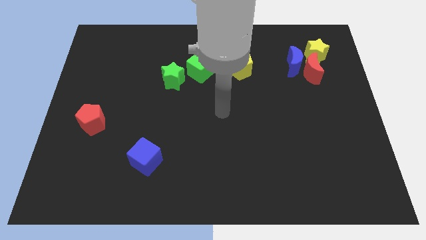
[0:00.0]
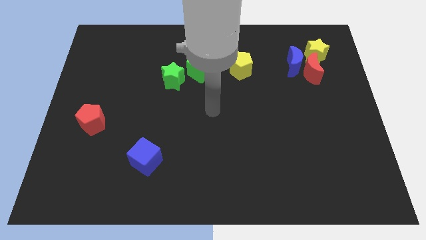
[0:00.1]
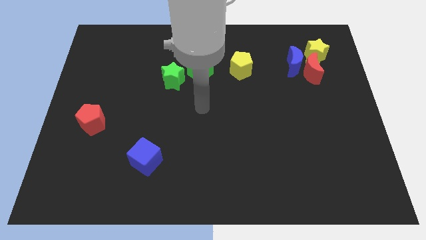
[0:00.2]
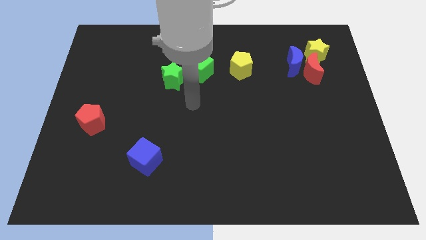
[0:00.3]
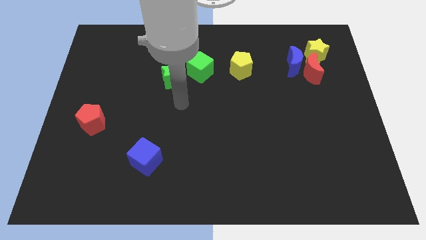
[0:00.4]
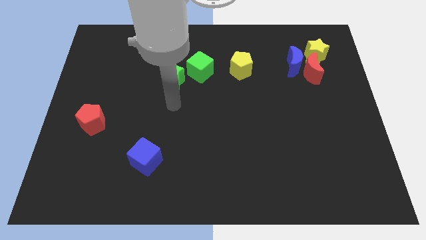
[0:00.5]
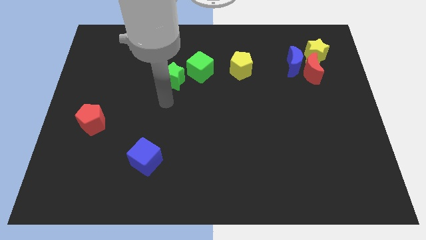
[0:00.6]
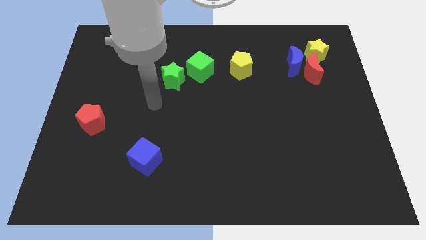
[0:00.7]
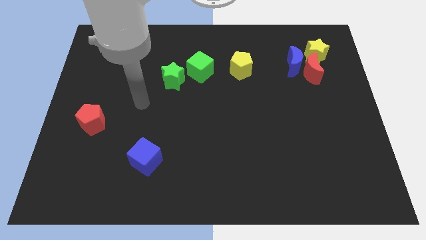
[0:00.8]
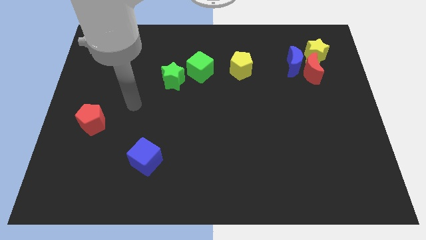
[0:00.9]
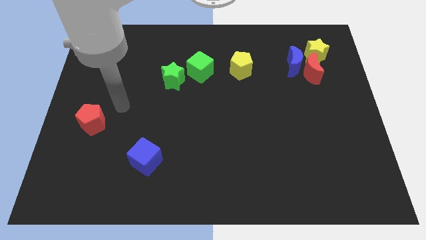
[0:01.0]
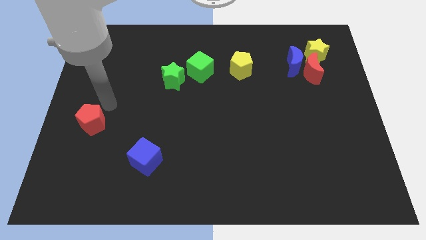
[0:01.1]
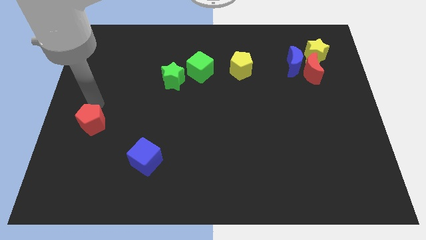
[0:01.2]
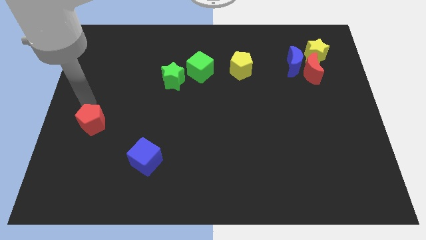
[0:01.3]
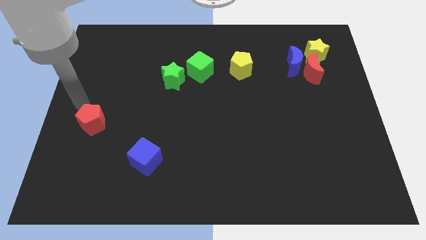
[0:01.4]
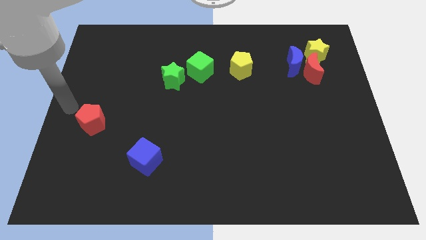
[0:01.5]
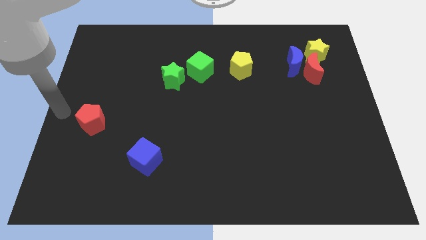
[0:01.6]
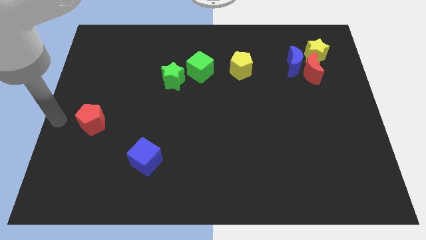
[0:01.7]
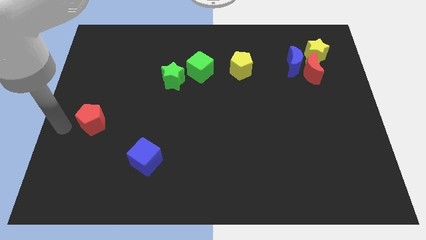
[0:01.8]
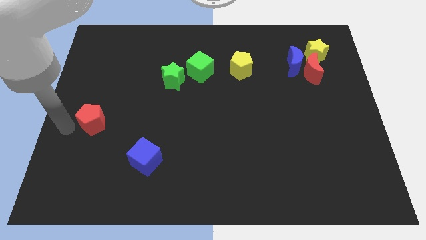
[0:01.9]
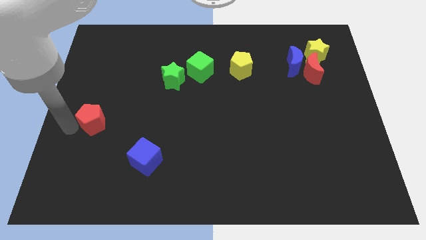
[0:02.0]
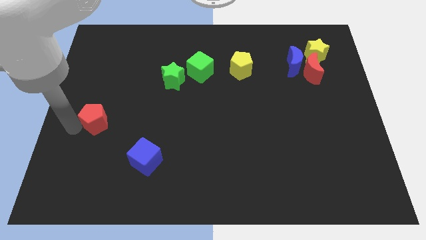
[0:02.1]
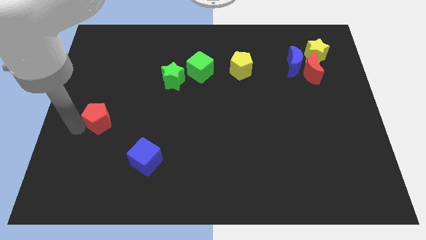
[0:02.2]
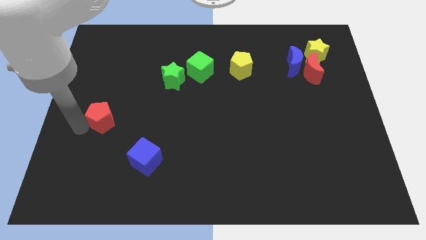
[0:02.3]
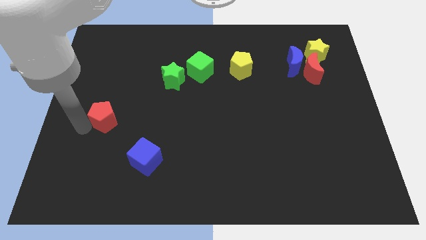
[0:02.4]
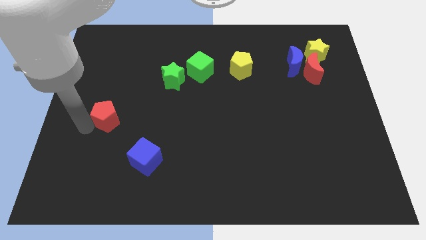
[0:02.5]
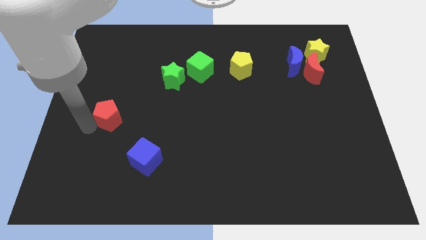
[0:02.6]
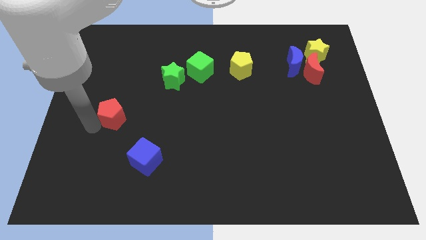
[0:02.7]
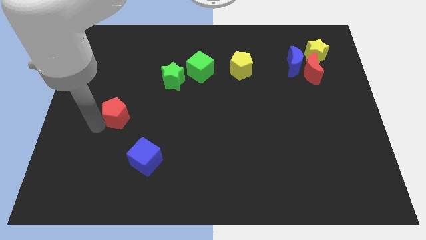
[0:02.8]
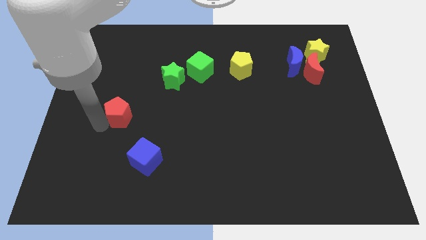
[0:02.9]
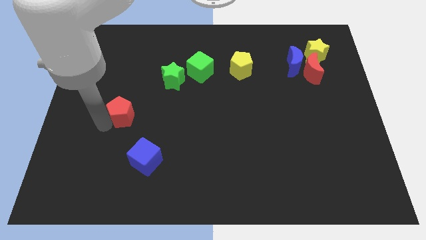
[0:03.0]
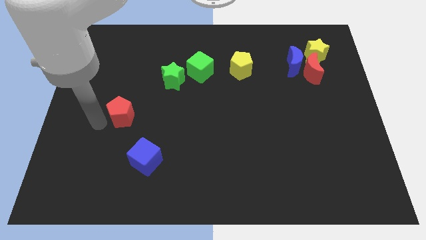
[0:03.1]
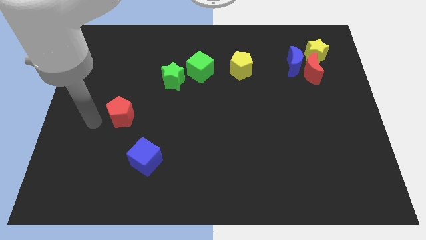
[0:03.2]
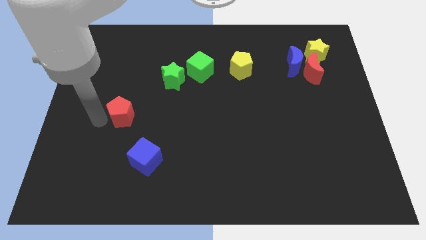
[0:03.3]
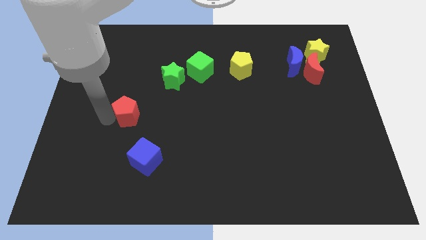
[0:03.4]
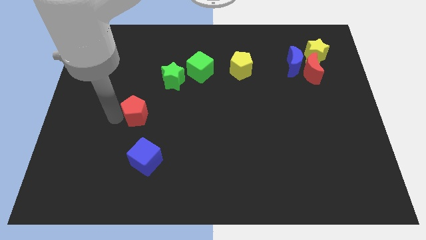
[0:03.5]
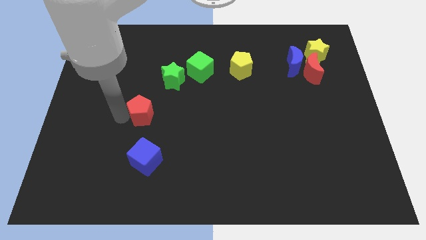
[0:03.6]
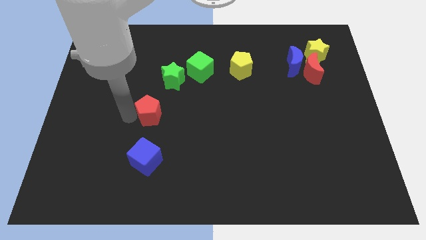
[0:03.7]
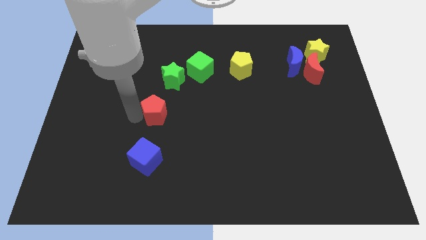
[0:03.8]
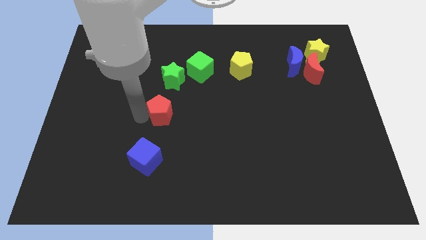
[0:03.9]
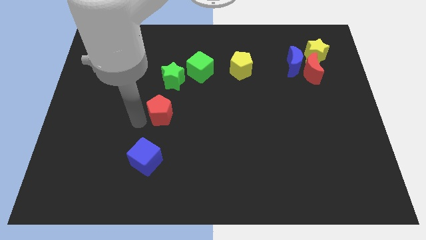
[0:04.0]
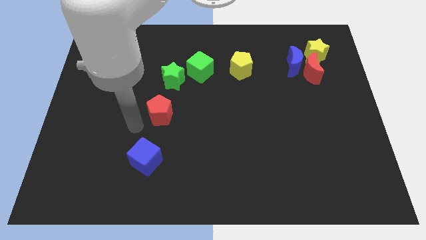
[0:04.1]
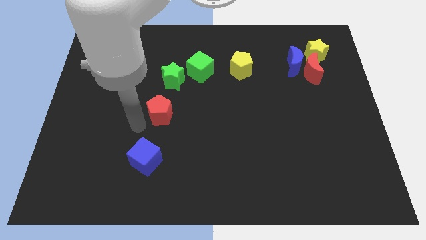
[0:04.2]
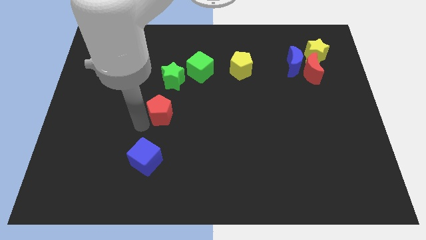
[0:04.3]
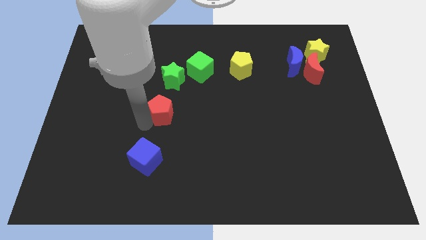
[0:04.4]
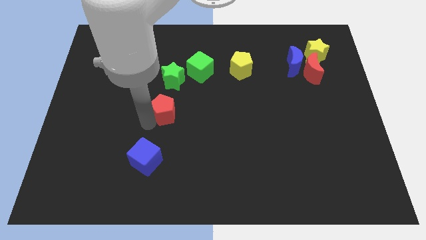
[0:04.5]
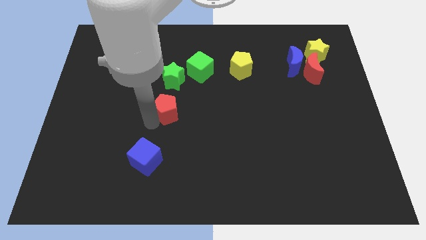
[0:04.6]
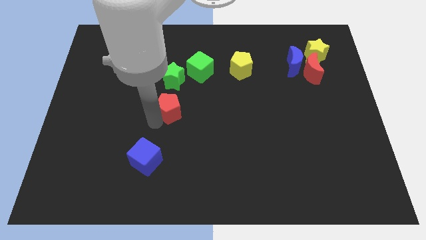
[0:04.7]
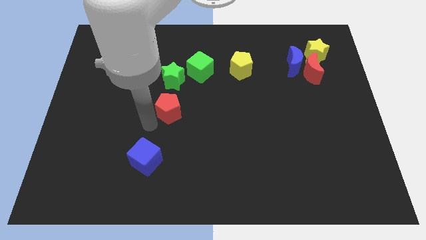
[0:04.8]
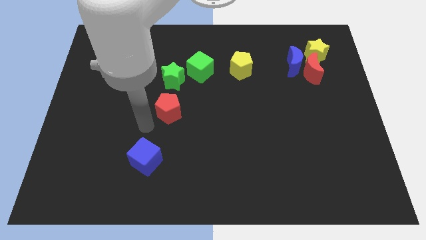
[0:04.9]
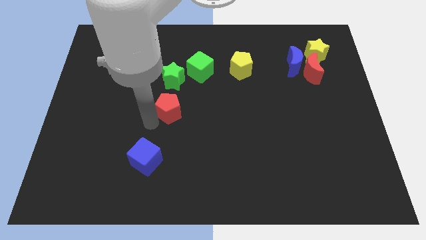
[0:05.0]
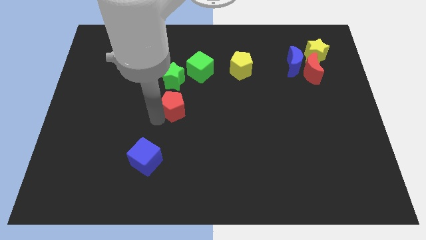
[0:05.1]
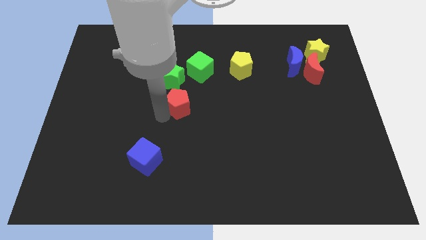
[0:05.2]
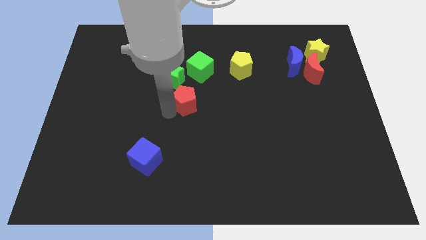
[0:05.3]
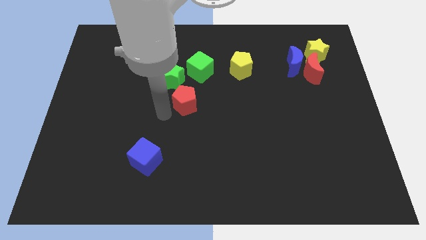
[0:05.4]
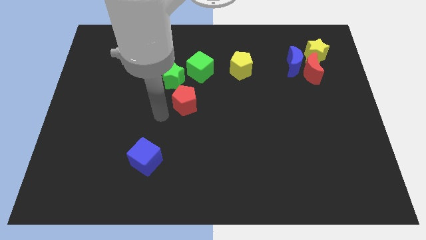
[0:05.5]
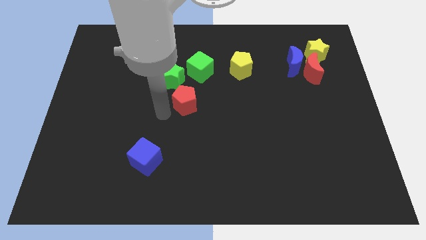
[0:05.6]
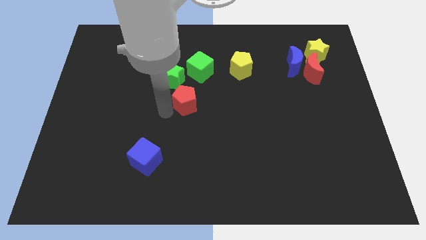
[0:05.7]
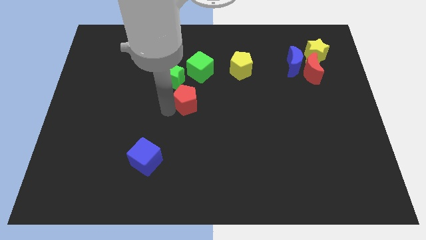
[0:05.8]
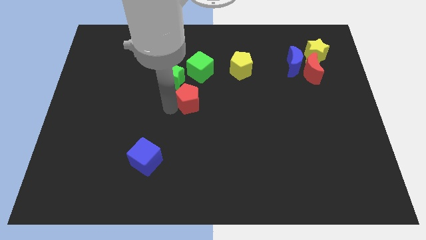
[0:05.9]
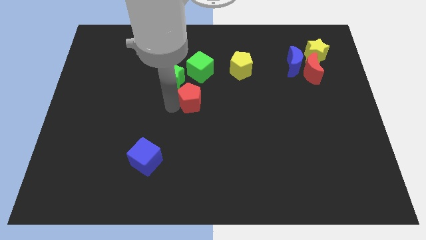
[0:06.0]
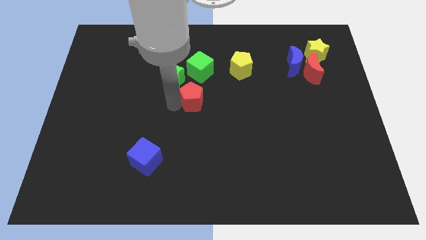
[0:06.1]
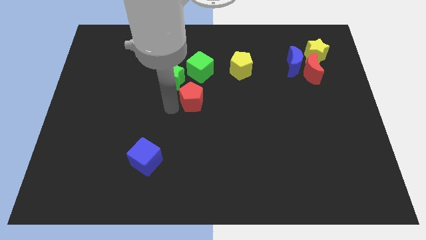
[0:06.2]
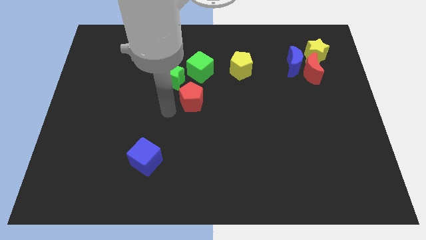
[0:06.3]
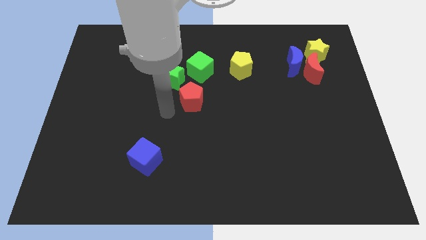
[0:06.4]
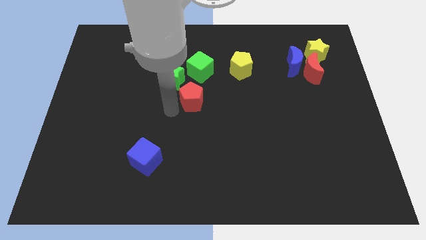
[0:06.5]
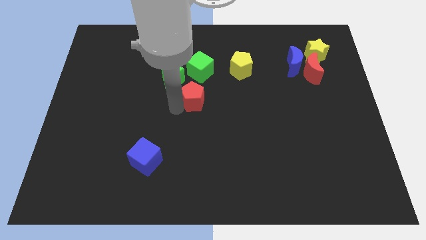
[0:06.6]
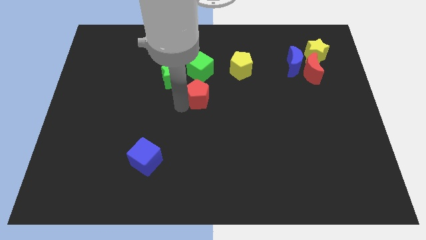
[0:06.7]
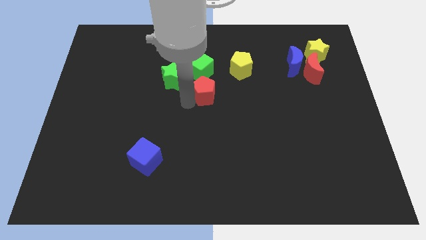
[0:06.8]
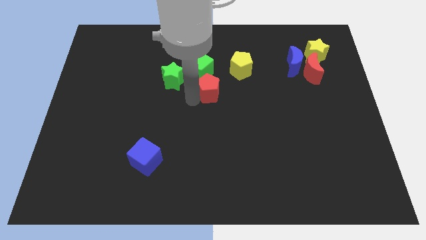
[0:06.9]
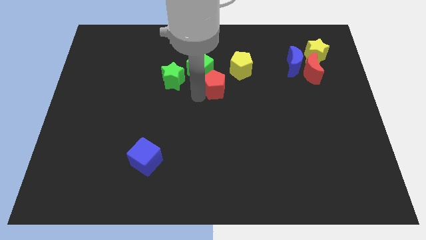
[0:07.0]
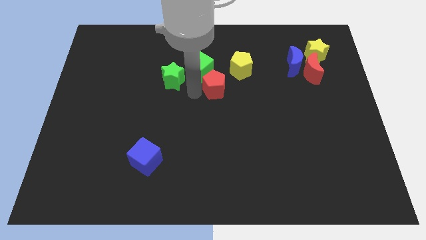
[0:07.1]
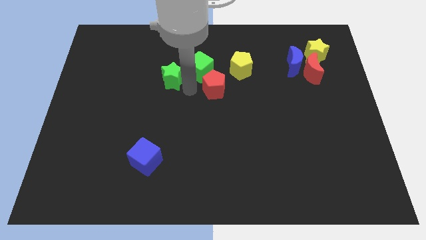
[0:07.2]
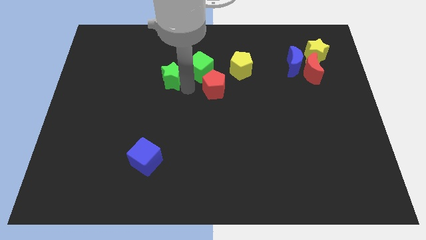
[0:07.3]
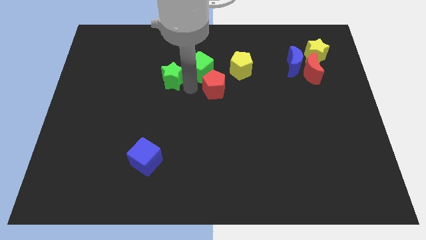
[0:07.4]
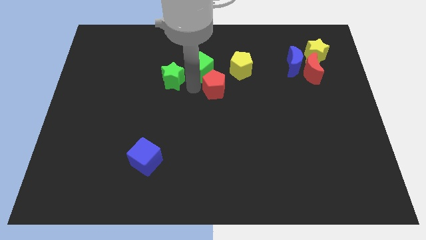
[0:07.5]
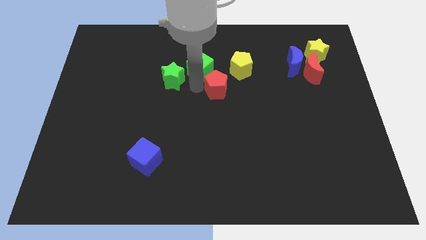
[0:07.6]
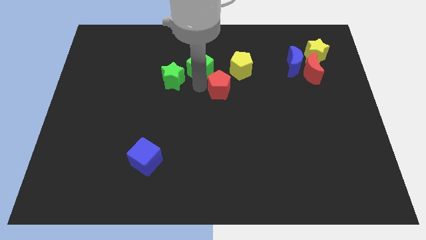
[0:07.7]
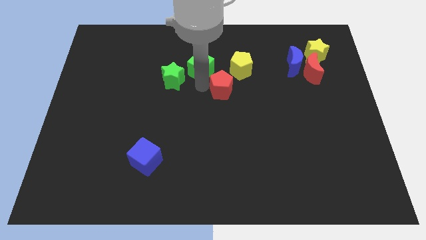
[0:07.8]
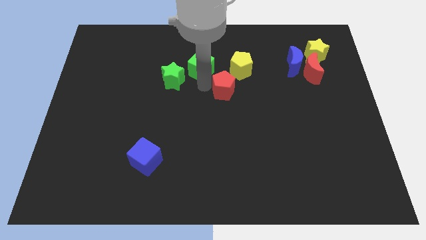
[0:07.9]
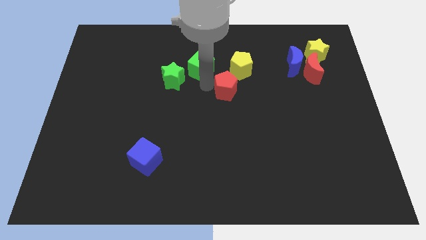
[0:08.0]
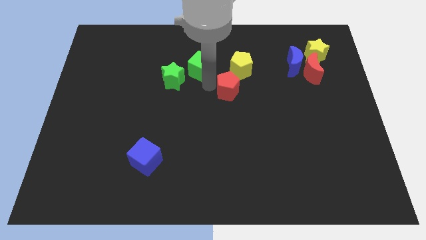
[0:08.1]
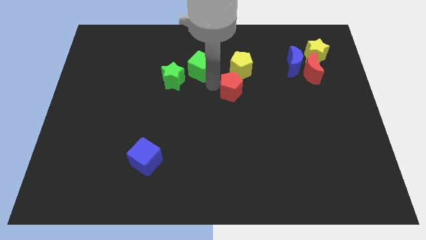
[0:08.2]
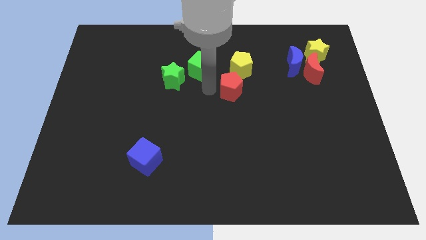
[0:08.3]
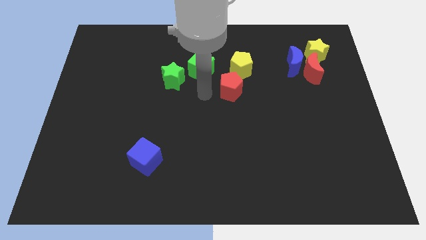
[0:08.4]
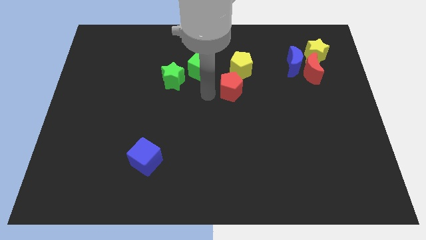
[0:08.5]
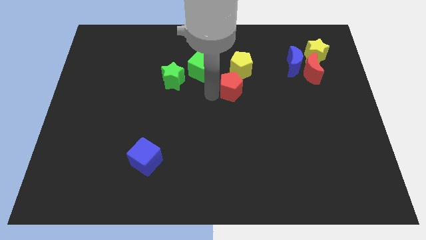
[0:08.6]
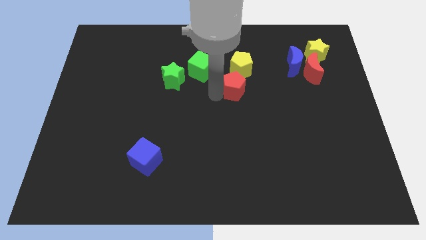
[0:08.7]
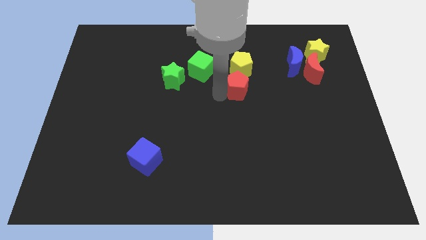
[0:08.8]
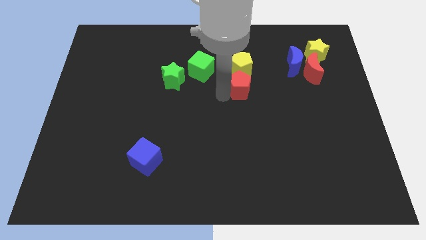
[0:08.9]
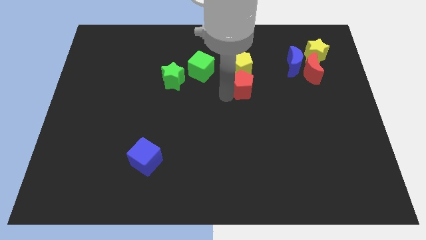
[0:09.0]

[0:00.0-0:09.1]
put the red pentagon diagonally down and to the right of the yellow pentagon
